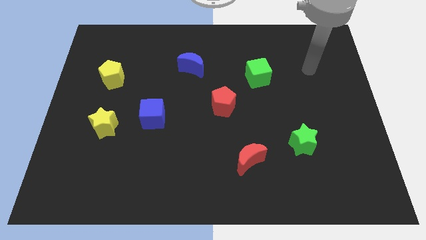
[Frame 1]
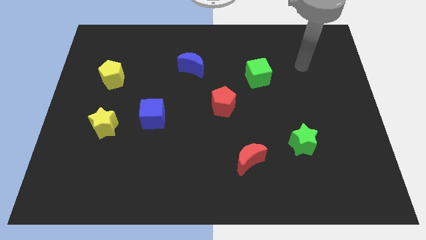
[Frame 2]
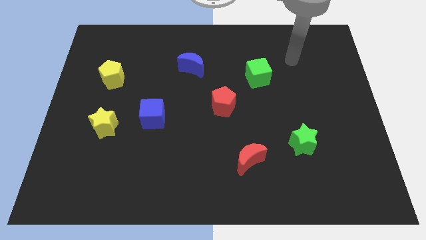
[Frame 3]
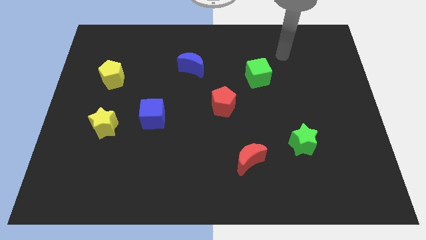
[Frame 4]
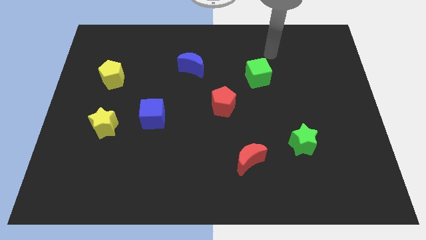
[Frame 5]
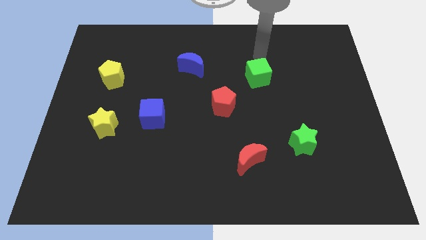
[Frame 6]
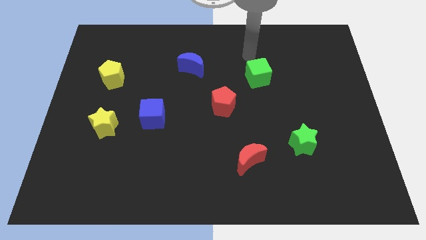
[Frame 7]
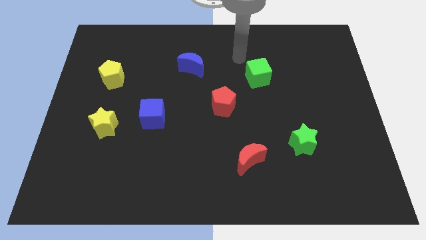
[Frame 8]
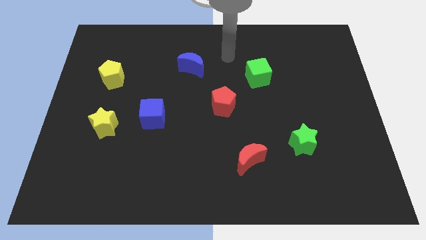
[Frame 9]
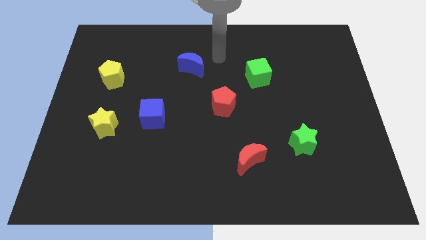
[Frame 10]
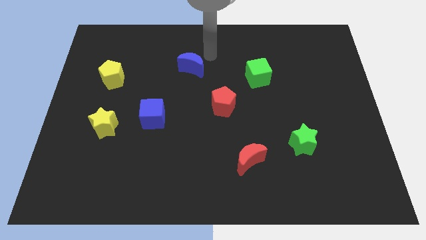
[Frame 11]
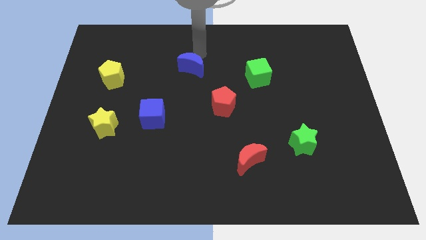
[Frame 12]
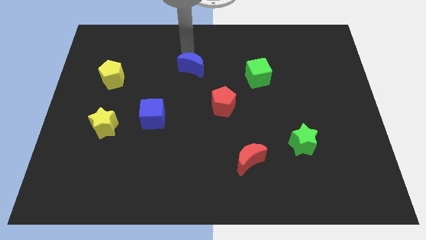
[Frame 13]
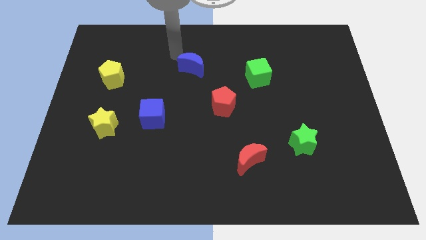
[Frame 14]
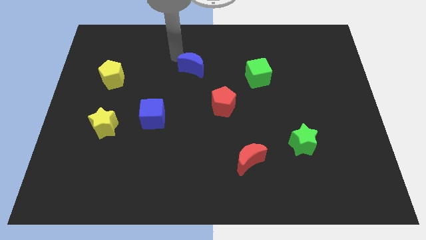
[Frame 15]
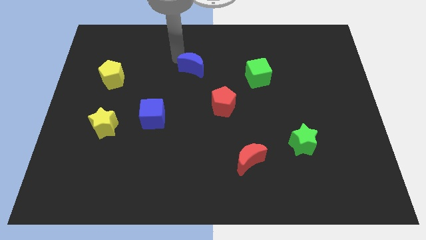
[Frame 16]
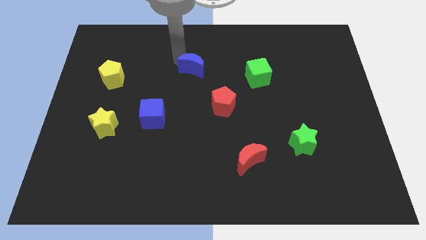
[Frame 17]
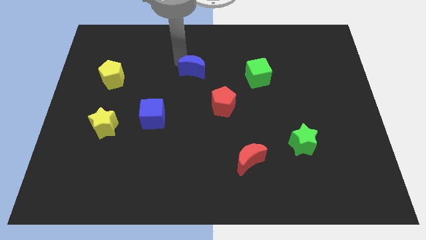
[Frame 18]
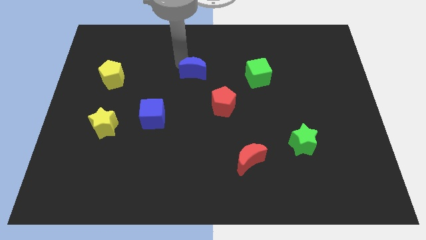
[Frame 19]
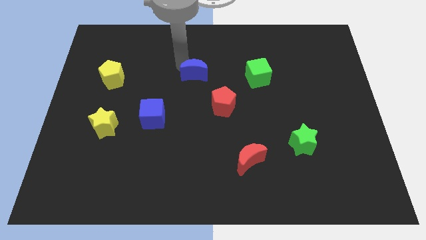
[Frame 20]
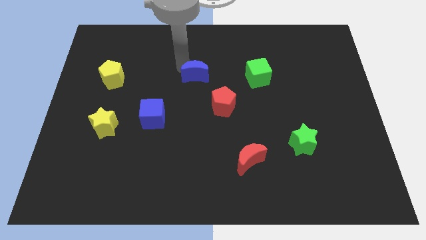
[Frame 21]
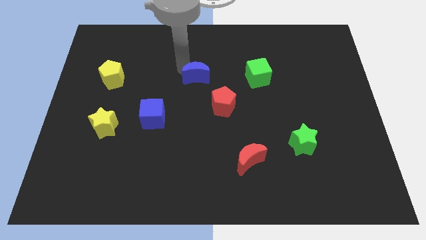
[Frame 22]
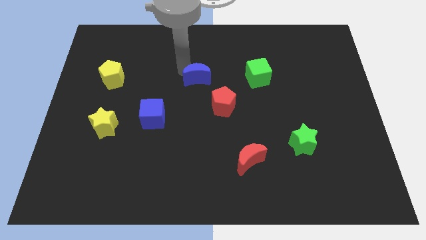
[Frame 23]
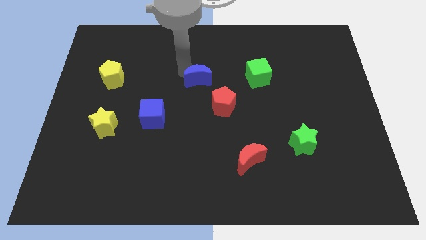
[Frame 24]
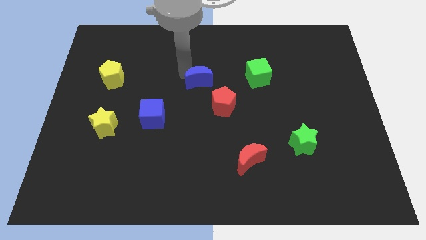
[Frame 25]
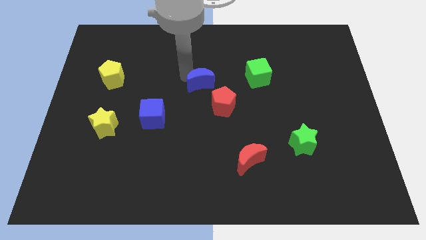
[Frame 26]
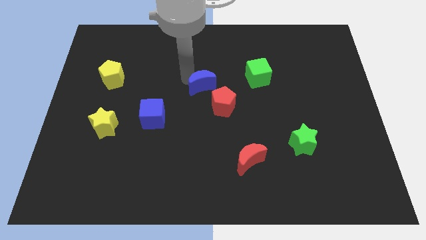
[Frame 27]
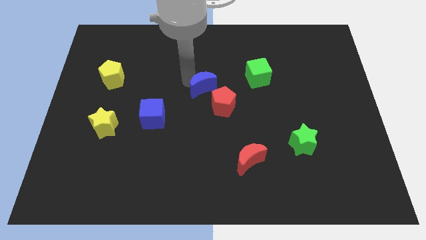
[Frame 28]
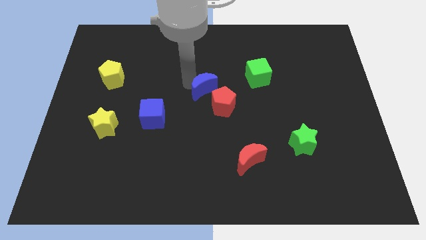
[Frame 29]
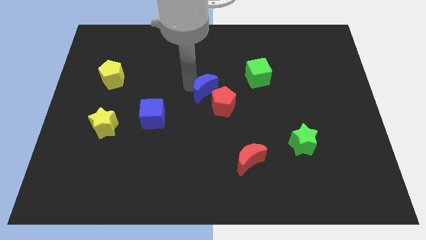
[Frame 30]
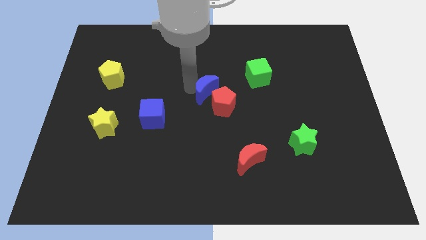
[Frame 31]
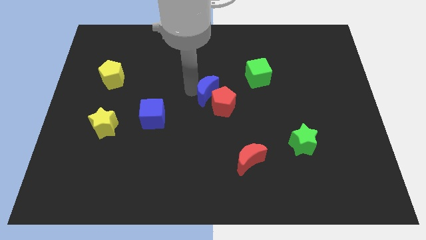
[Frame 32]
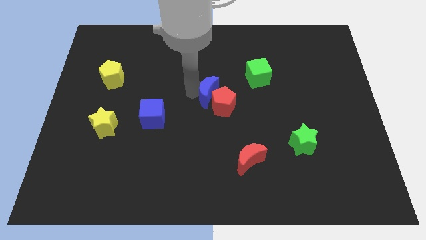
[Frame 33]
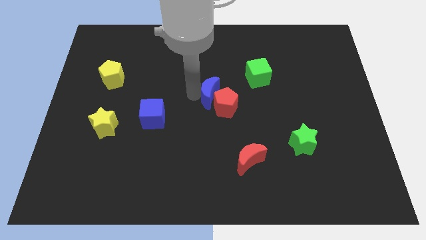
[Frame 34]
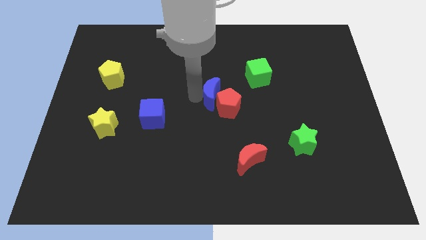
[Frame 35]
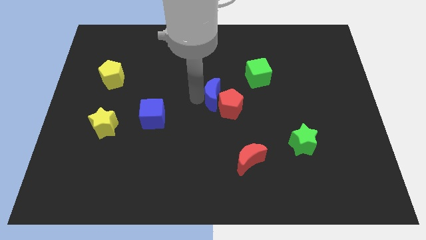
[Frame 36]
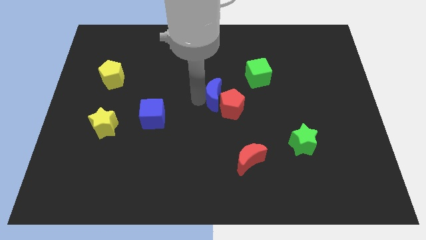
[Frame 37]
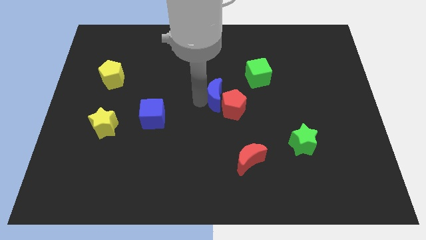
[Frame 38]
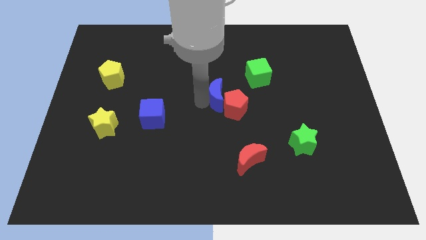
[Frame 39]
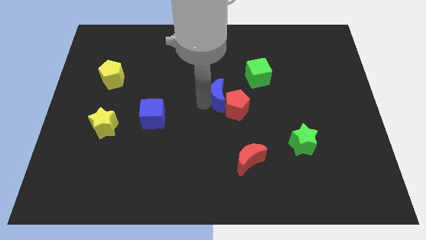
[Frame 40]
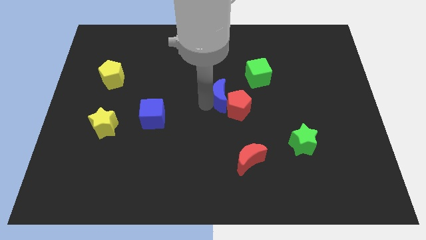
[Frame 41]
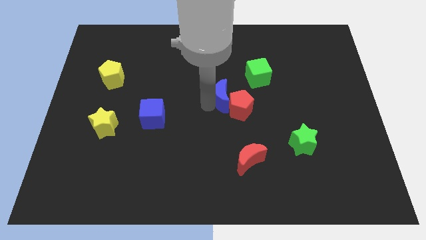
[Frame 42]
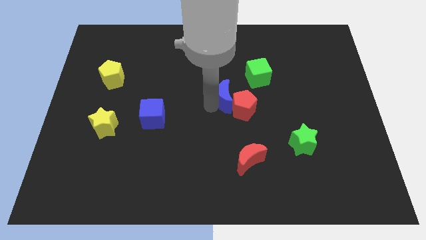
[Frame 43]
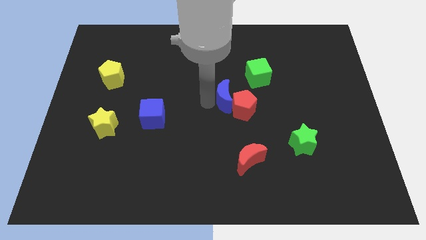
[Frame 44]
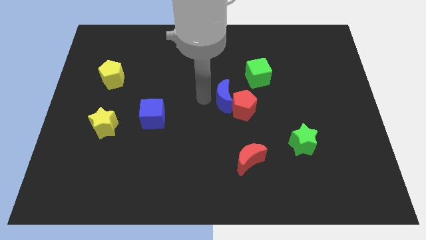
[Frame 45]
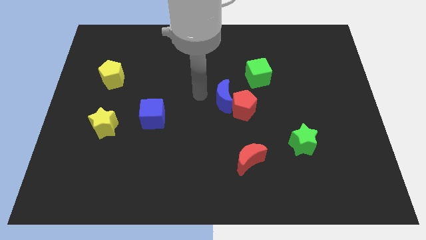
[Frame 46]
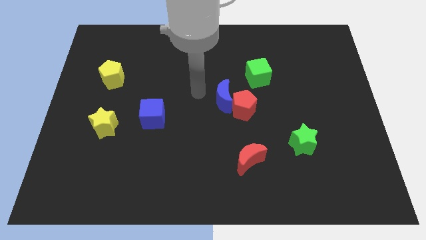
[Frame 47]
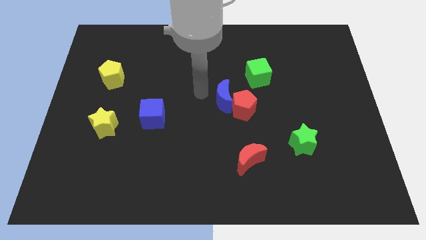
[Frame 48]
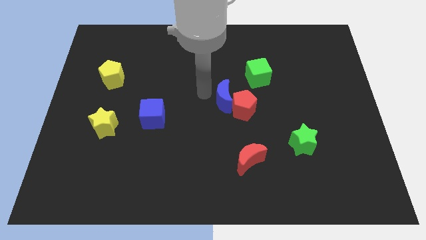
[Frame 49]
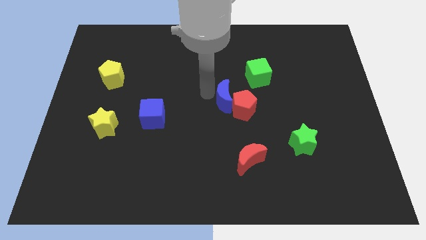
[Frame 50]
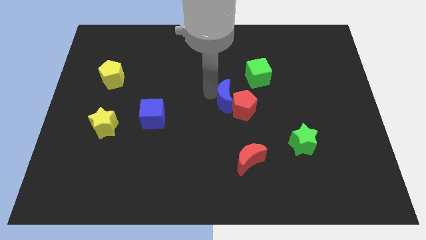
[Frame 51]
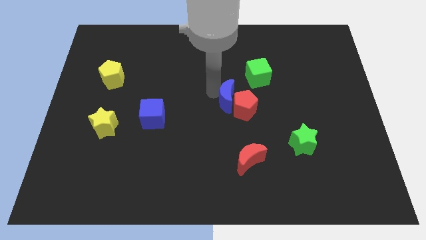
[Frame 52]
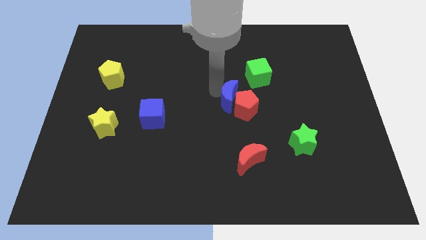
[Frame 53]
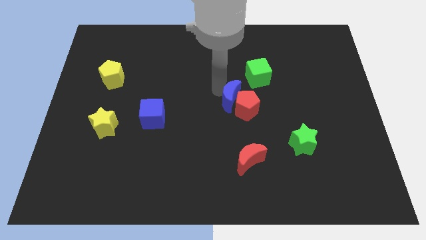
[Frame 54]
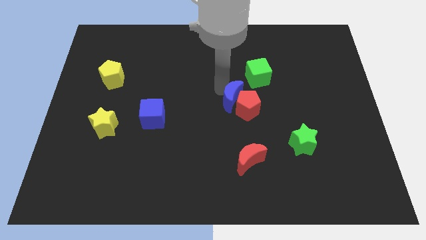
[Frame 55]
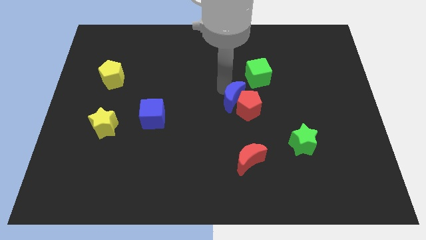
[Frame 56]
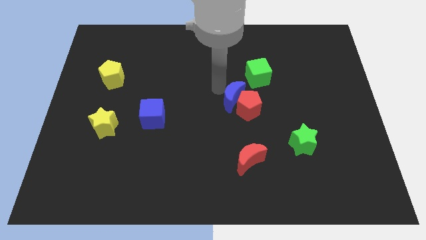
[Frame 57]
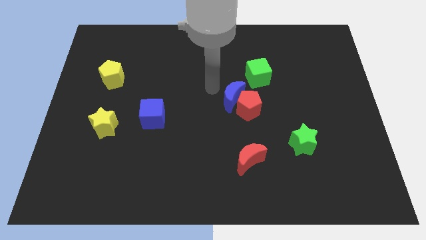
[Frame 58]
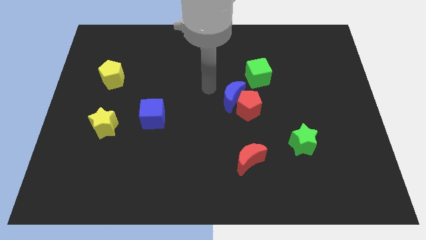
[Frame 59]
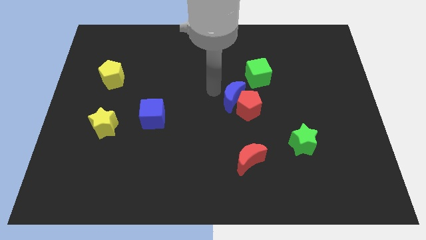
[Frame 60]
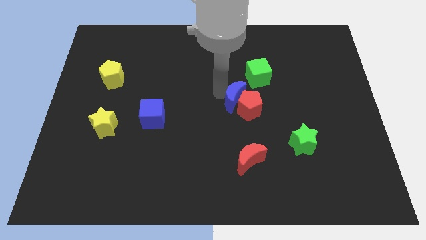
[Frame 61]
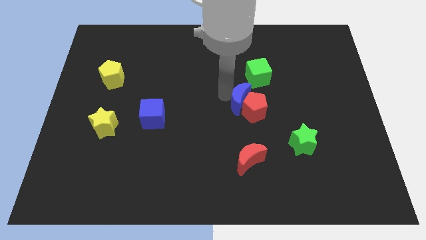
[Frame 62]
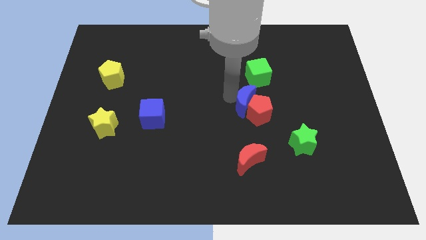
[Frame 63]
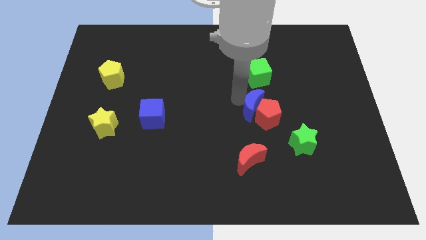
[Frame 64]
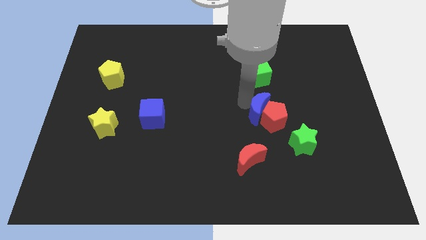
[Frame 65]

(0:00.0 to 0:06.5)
move the blue moon to the top left side of the green star

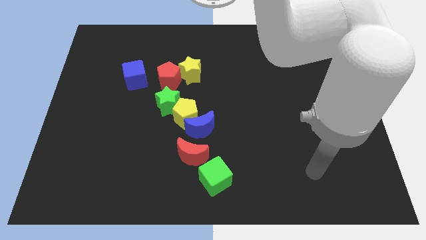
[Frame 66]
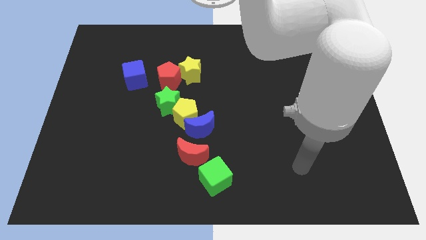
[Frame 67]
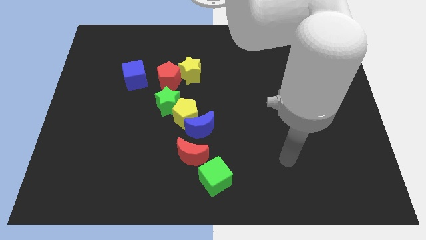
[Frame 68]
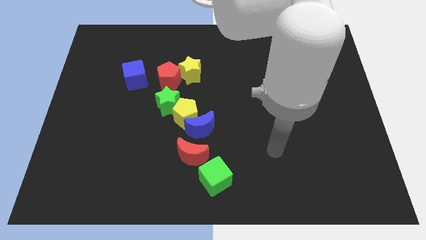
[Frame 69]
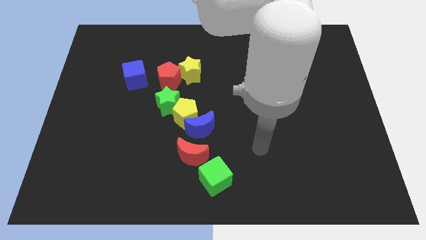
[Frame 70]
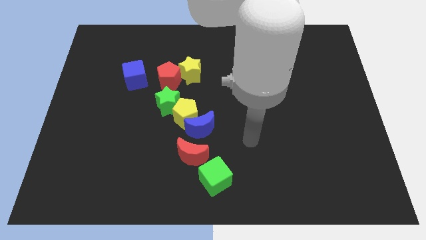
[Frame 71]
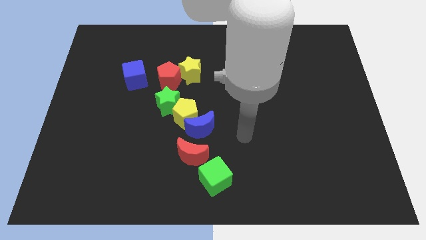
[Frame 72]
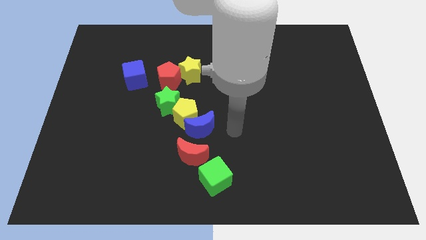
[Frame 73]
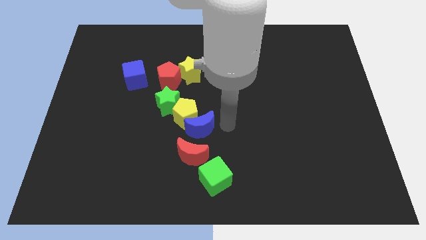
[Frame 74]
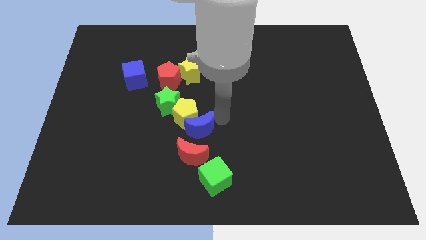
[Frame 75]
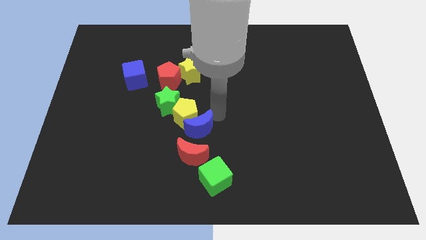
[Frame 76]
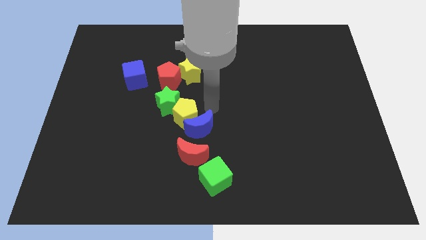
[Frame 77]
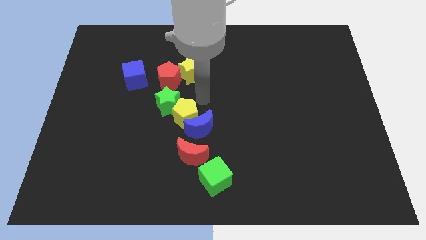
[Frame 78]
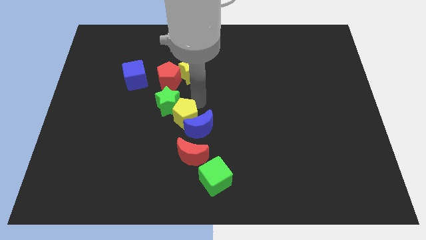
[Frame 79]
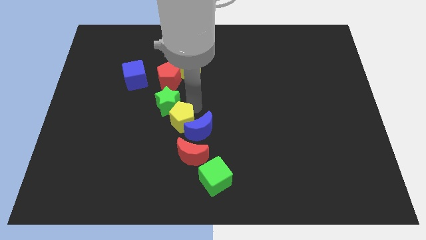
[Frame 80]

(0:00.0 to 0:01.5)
put the yellow pentagon to the top left of the red moon
